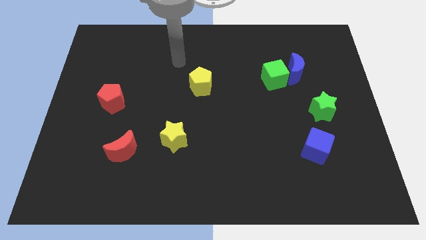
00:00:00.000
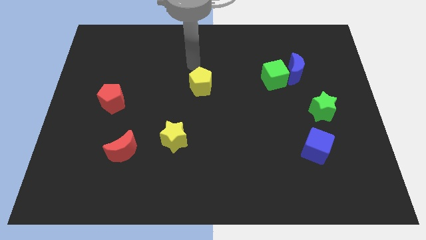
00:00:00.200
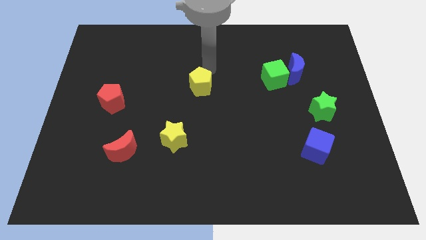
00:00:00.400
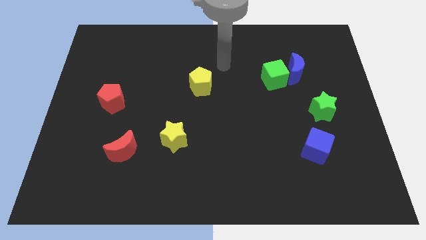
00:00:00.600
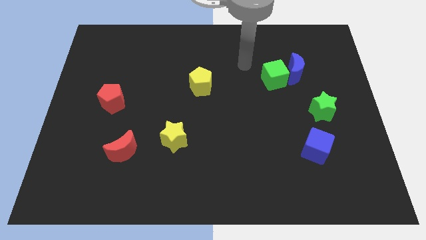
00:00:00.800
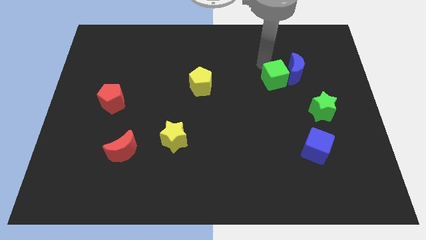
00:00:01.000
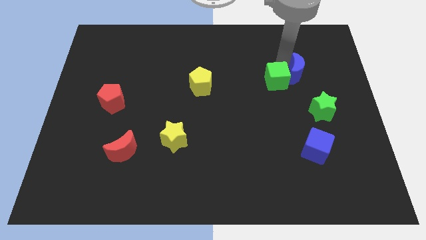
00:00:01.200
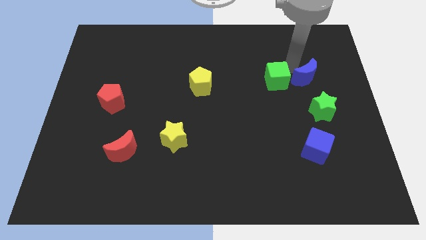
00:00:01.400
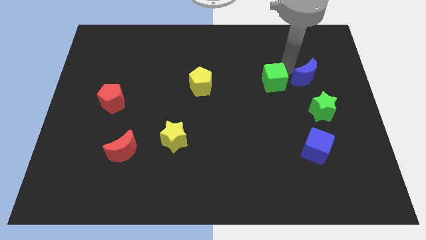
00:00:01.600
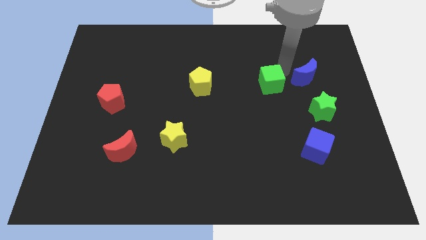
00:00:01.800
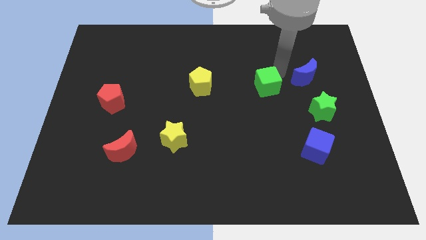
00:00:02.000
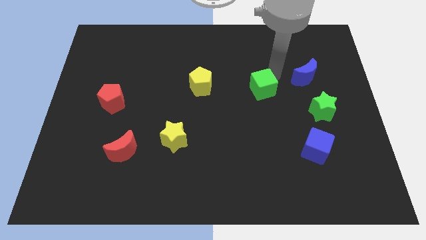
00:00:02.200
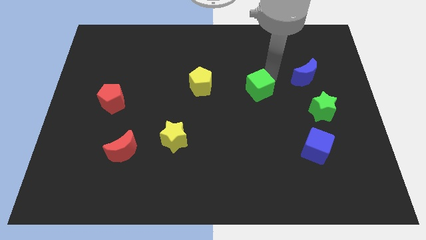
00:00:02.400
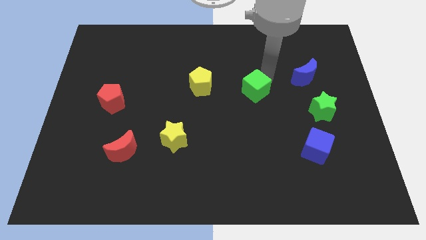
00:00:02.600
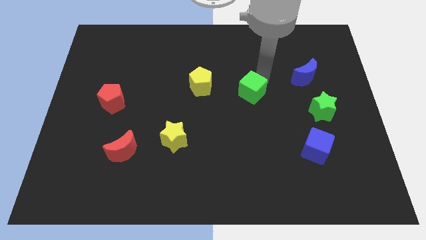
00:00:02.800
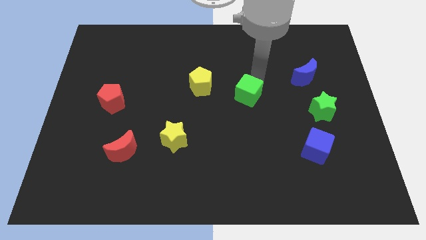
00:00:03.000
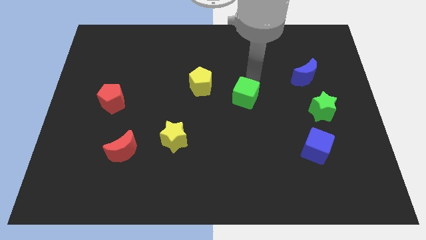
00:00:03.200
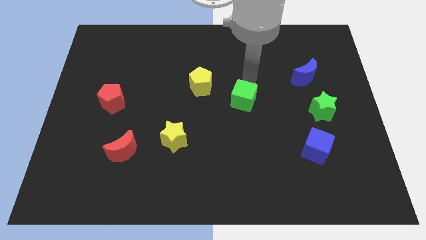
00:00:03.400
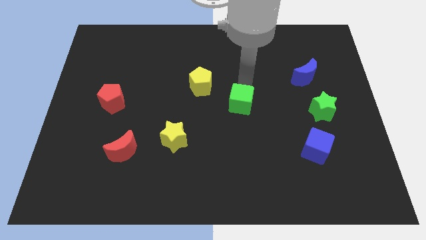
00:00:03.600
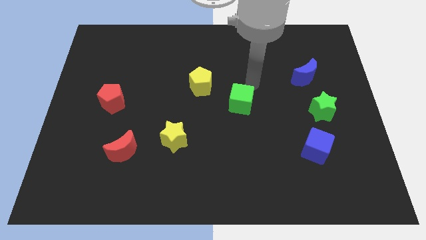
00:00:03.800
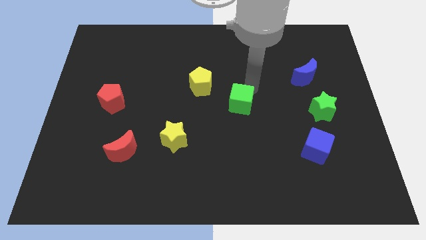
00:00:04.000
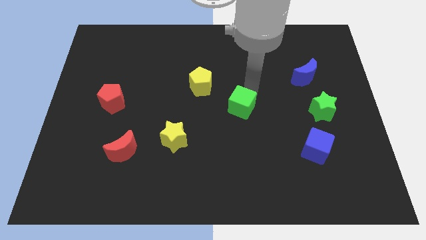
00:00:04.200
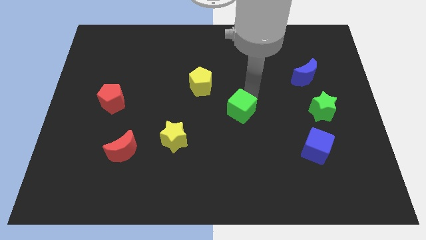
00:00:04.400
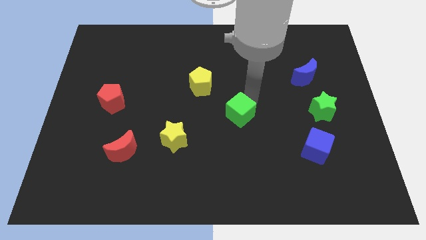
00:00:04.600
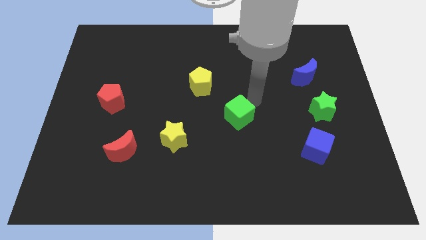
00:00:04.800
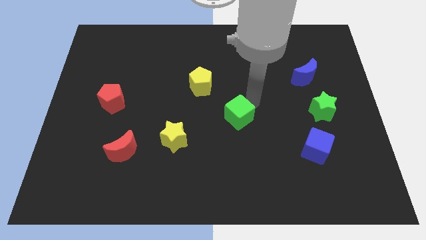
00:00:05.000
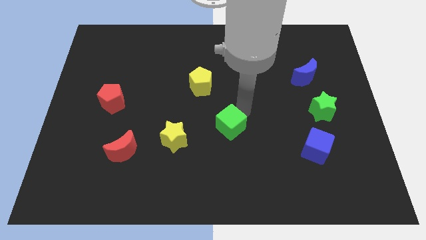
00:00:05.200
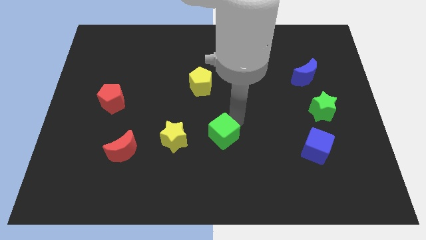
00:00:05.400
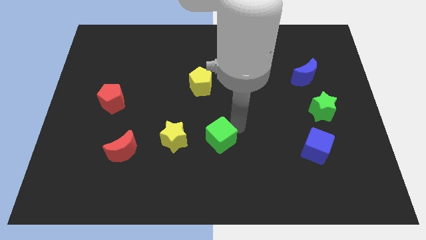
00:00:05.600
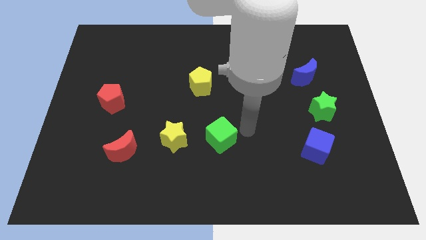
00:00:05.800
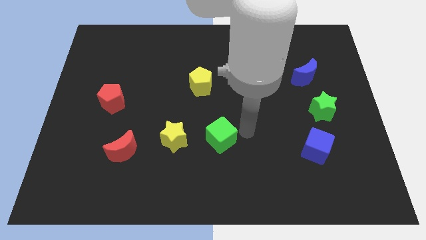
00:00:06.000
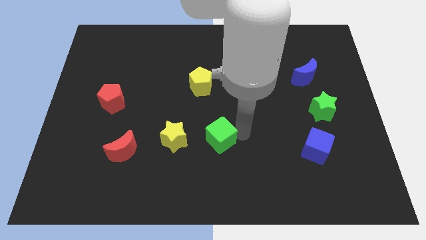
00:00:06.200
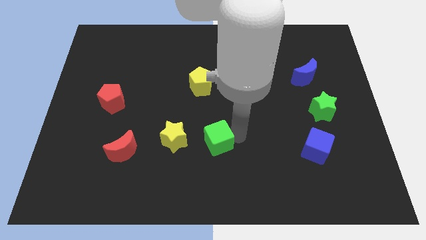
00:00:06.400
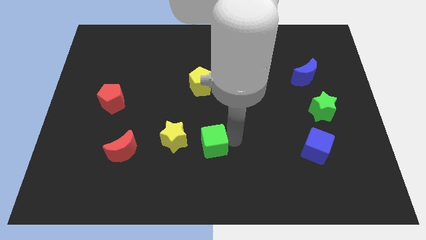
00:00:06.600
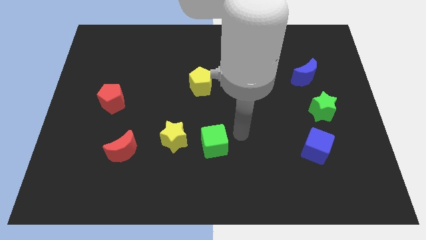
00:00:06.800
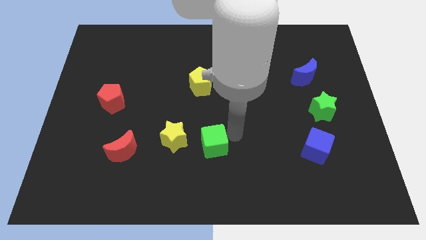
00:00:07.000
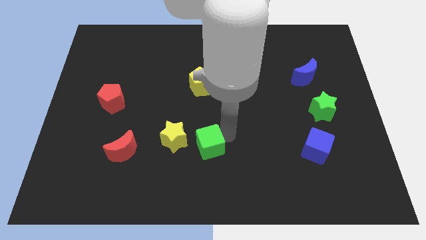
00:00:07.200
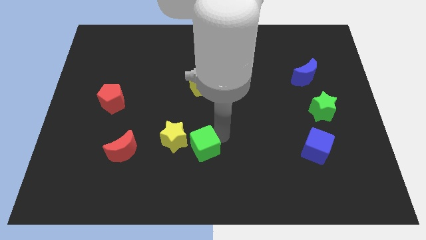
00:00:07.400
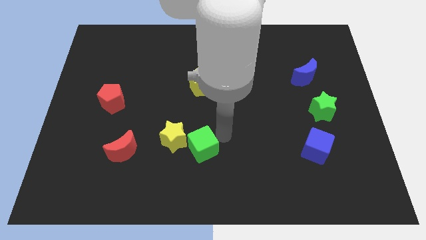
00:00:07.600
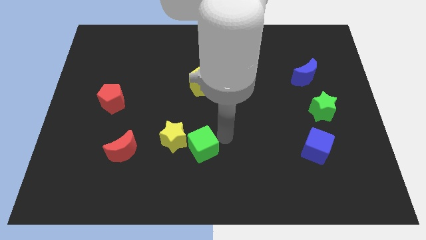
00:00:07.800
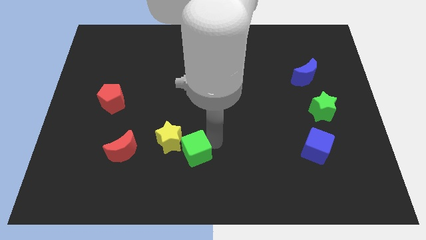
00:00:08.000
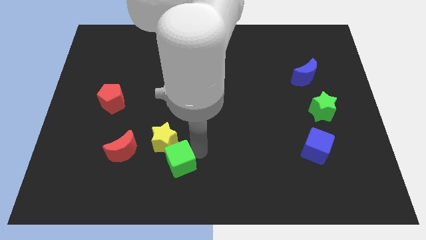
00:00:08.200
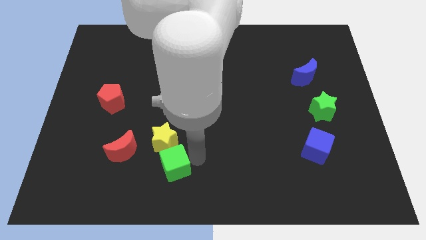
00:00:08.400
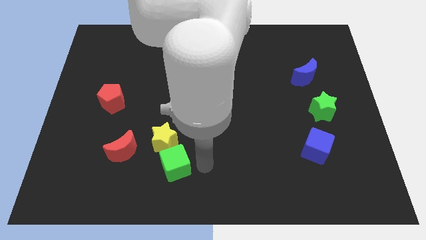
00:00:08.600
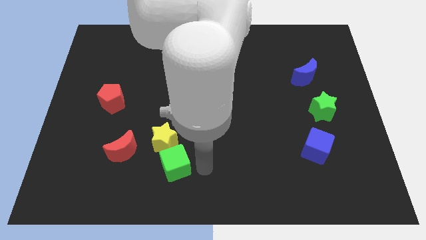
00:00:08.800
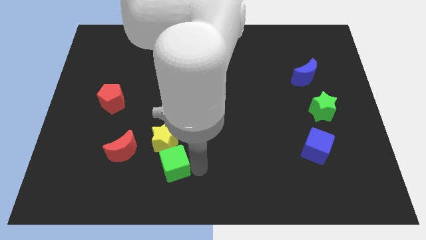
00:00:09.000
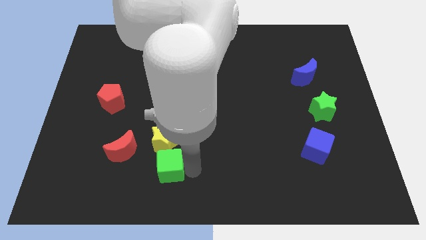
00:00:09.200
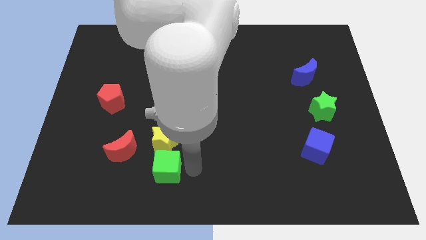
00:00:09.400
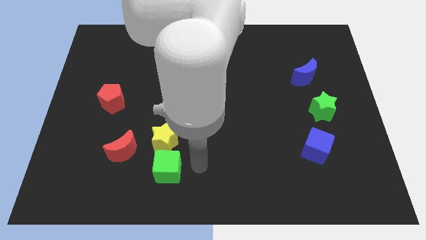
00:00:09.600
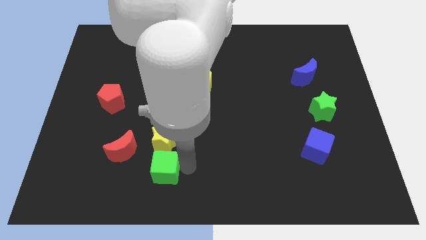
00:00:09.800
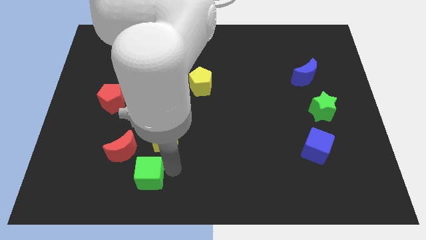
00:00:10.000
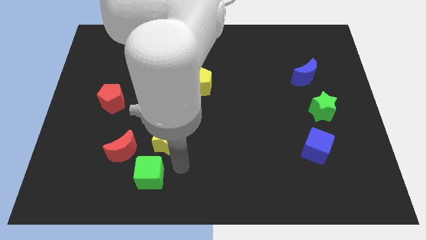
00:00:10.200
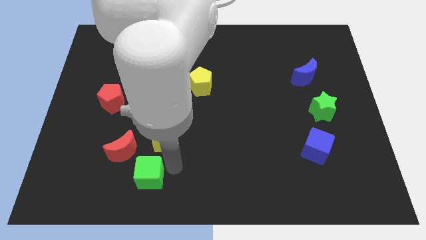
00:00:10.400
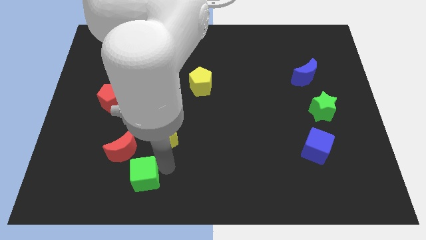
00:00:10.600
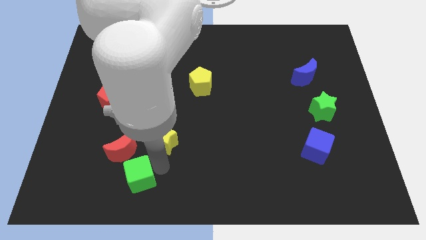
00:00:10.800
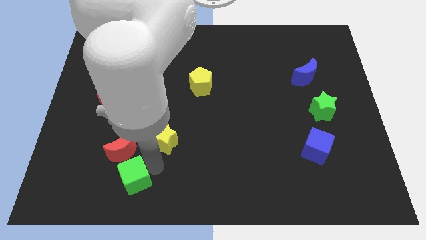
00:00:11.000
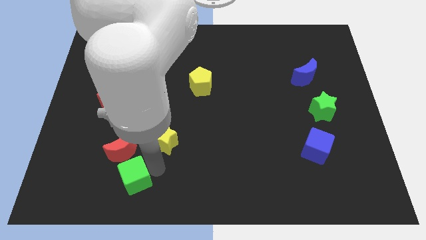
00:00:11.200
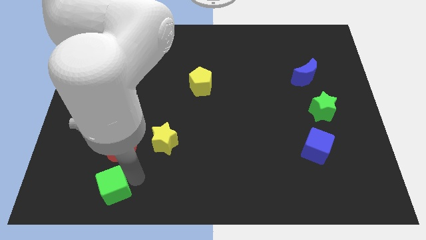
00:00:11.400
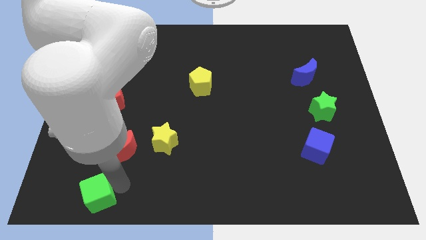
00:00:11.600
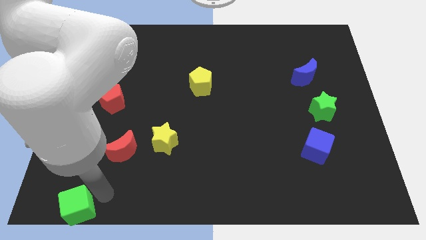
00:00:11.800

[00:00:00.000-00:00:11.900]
put the green cube to the lower left corner

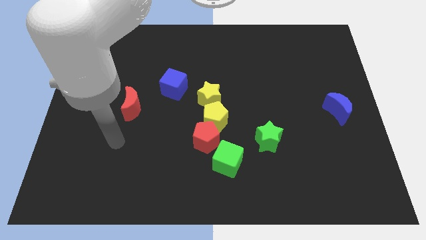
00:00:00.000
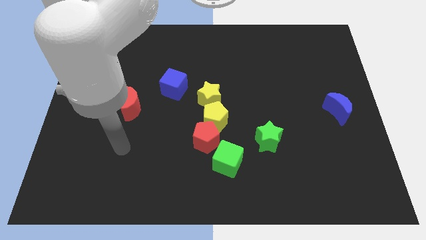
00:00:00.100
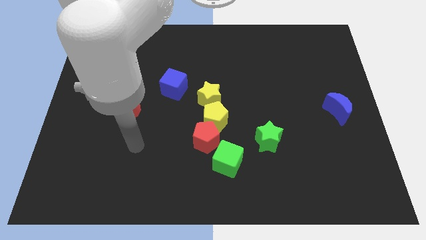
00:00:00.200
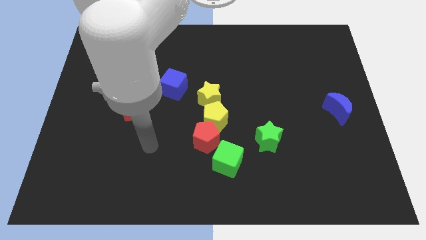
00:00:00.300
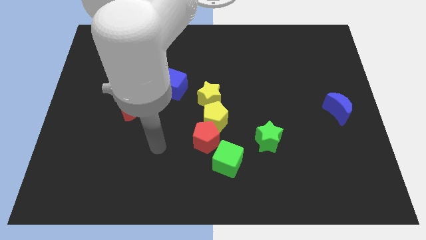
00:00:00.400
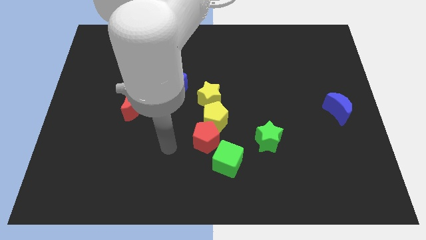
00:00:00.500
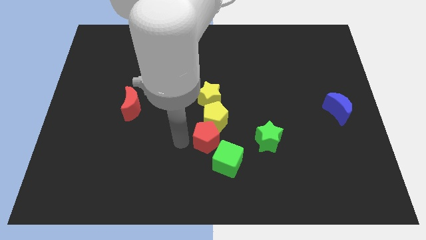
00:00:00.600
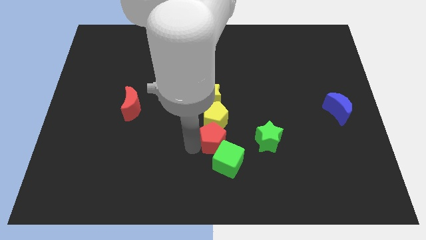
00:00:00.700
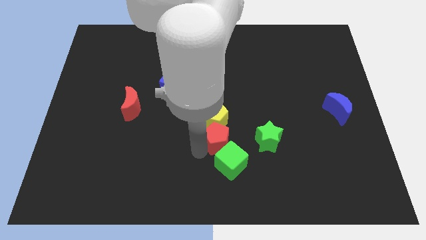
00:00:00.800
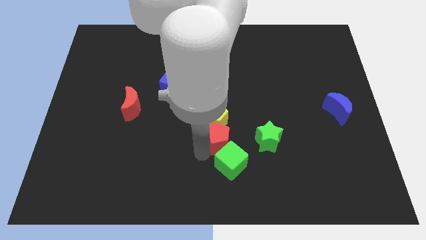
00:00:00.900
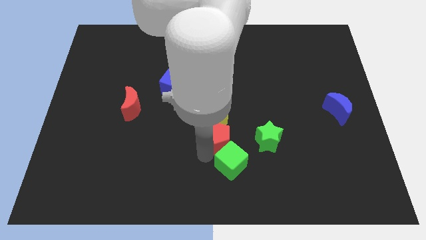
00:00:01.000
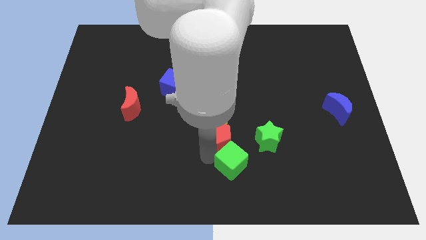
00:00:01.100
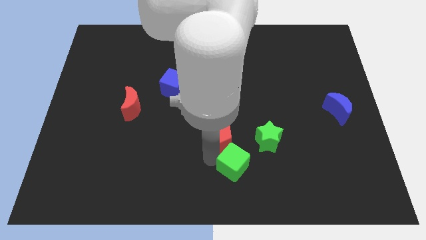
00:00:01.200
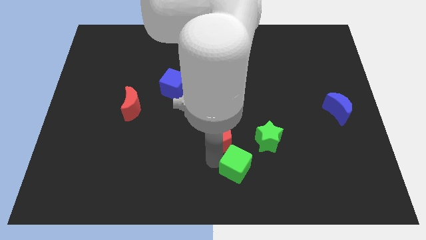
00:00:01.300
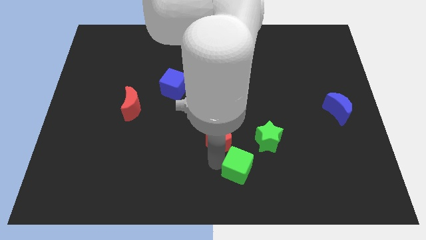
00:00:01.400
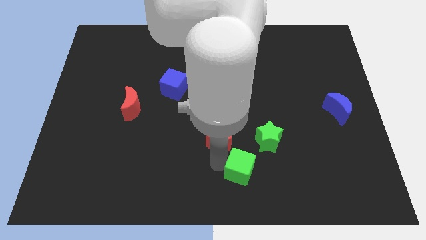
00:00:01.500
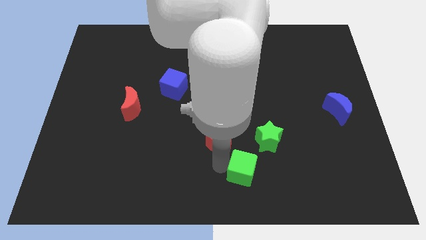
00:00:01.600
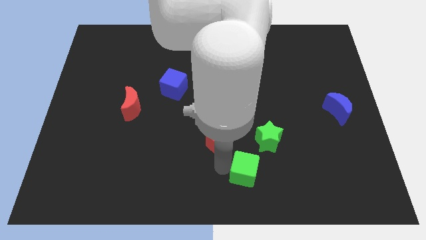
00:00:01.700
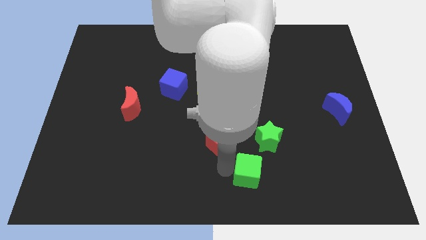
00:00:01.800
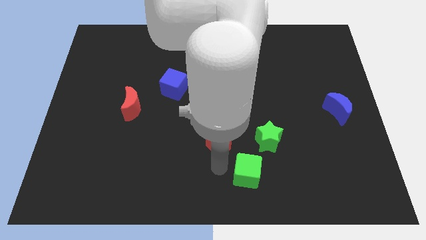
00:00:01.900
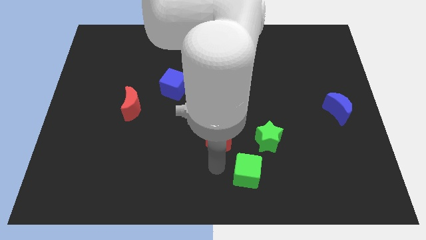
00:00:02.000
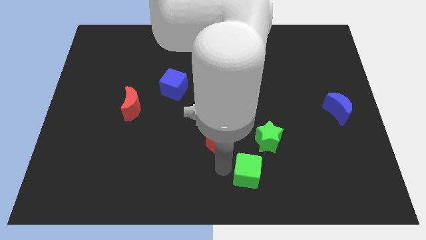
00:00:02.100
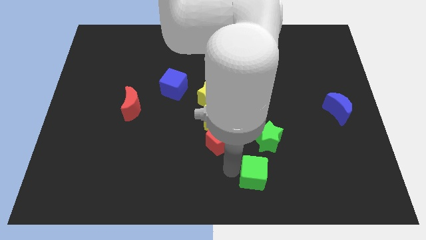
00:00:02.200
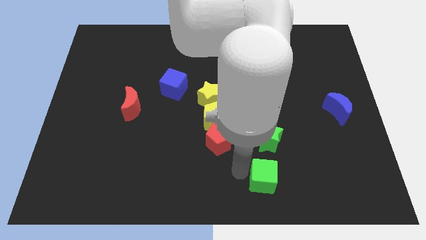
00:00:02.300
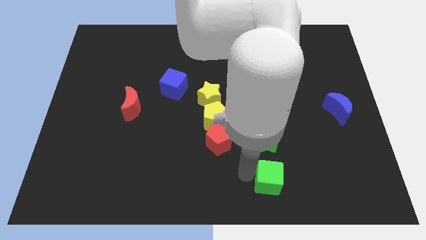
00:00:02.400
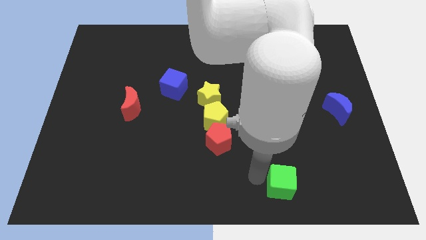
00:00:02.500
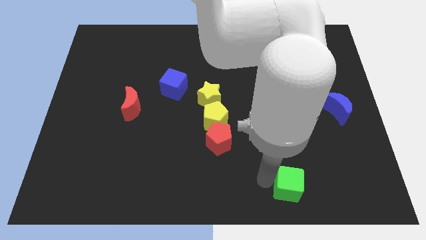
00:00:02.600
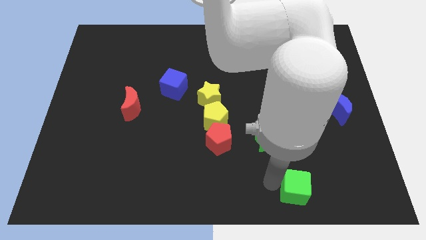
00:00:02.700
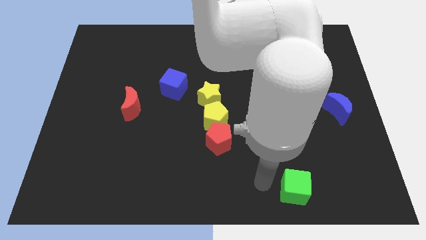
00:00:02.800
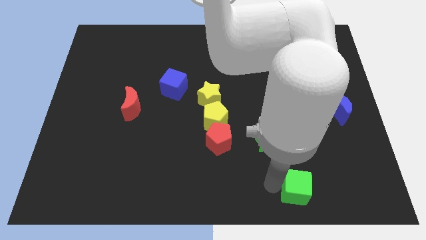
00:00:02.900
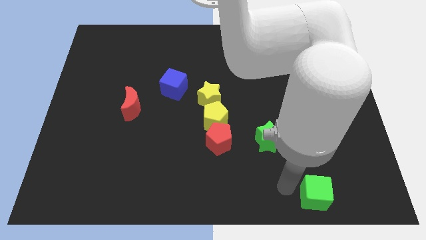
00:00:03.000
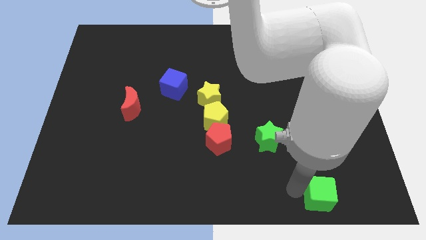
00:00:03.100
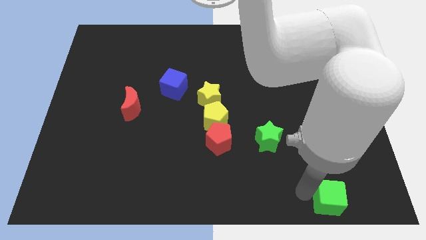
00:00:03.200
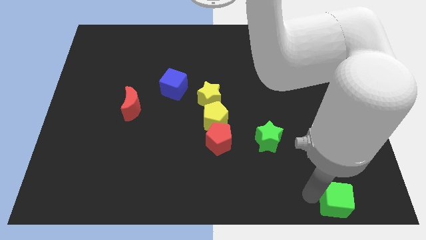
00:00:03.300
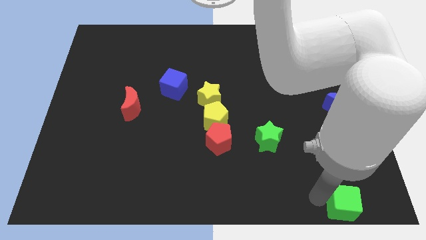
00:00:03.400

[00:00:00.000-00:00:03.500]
move the green cube to the bottom right of the board
